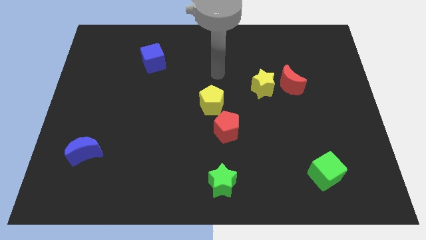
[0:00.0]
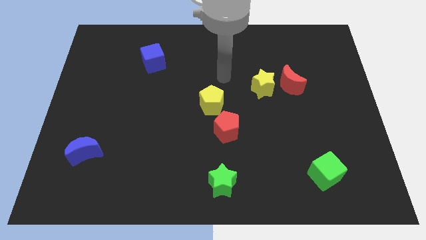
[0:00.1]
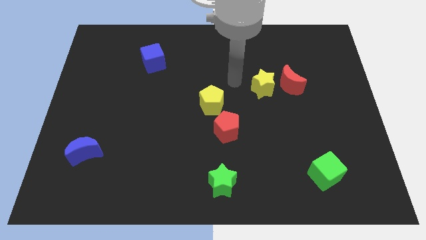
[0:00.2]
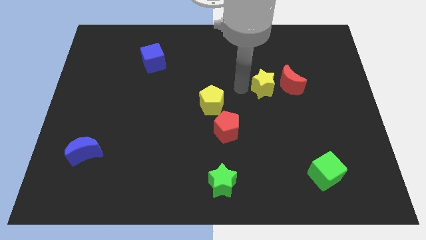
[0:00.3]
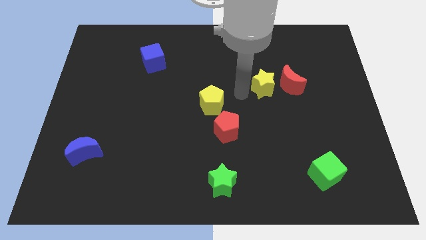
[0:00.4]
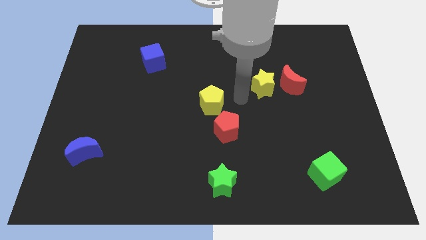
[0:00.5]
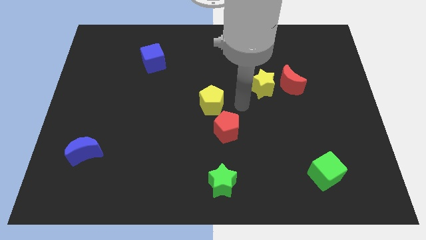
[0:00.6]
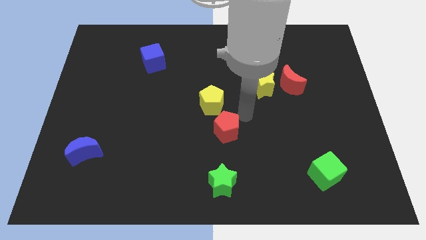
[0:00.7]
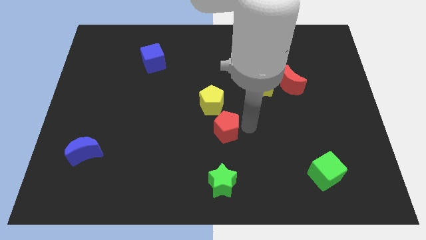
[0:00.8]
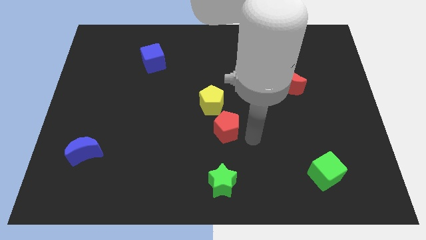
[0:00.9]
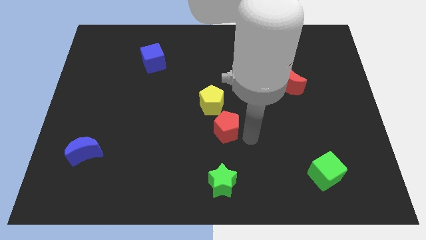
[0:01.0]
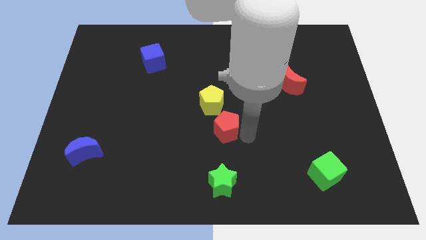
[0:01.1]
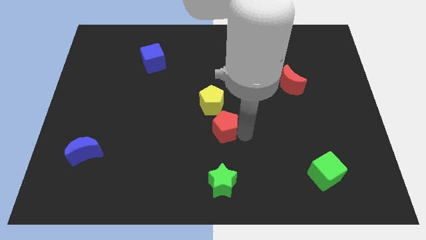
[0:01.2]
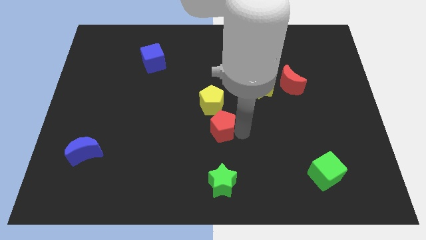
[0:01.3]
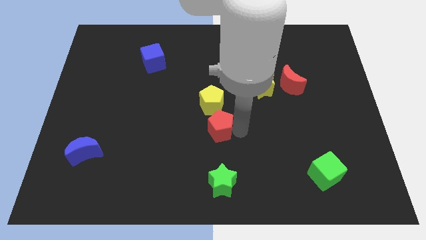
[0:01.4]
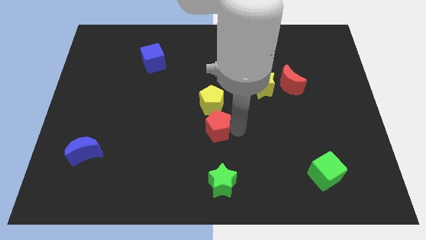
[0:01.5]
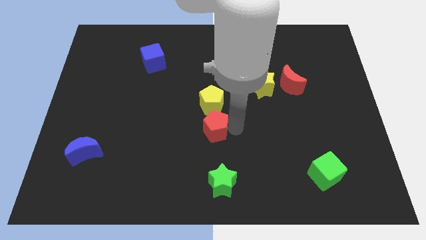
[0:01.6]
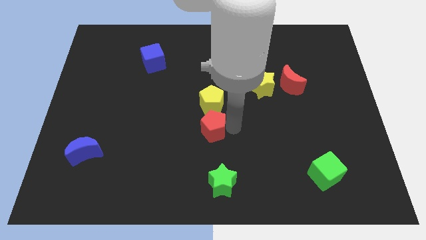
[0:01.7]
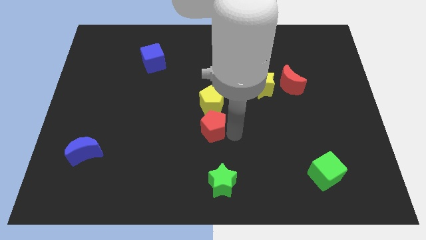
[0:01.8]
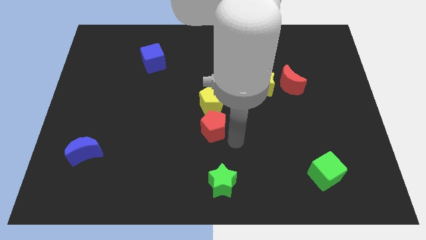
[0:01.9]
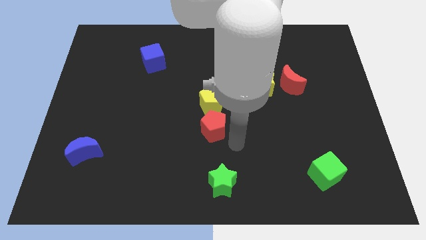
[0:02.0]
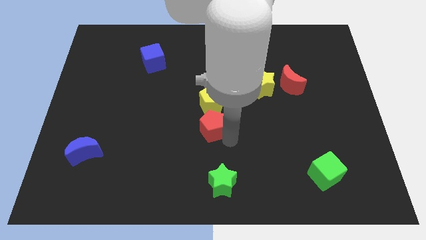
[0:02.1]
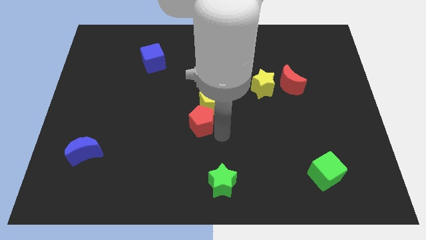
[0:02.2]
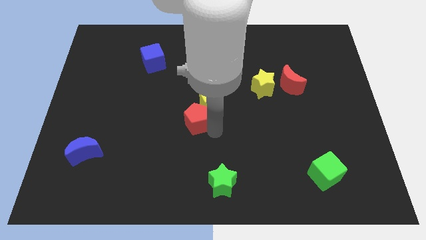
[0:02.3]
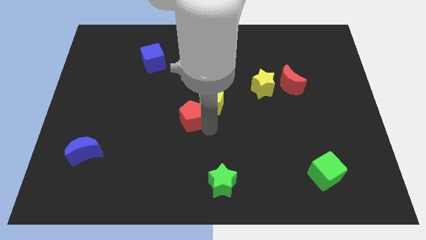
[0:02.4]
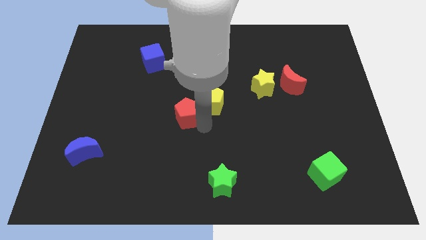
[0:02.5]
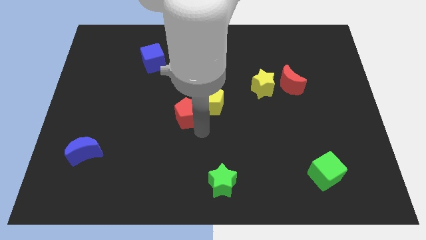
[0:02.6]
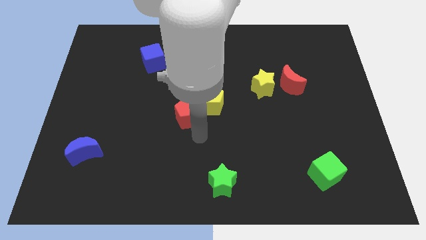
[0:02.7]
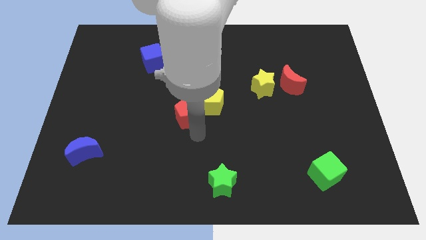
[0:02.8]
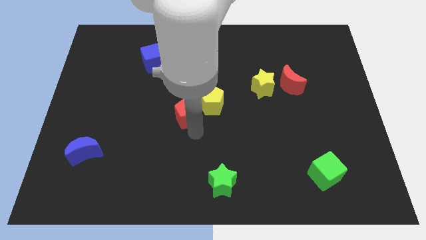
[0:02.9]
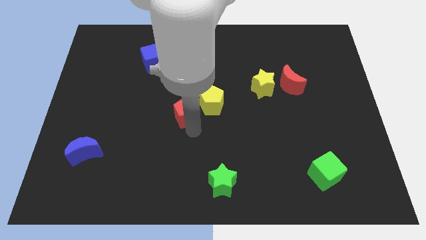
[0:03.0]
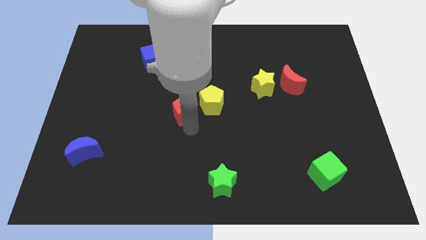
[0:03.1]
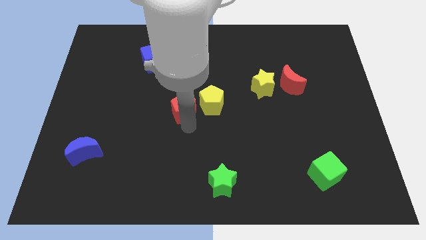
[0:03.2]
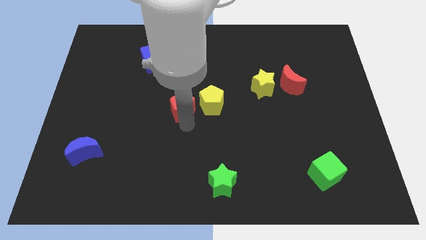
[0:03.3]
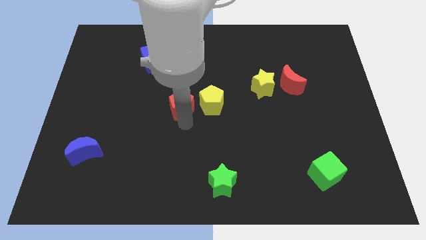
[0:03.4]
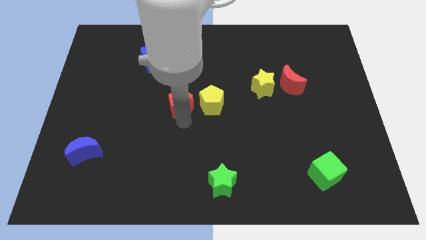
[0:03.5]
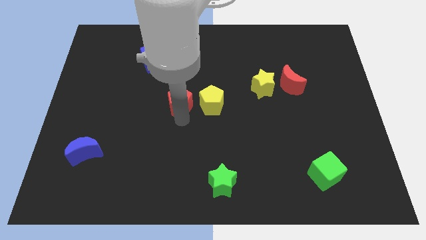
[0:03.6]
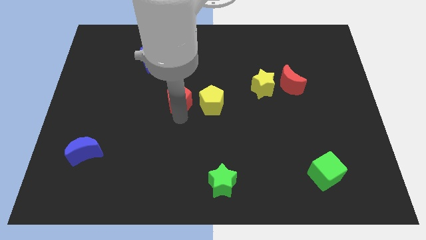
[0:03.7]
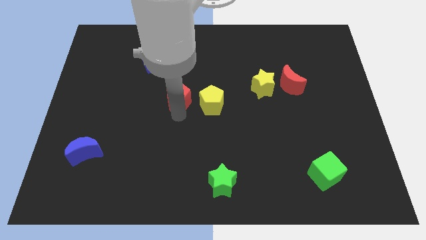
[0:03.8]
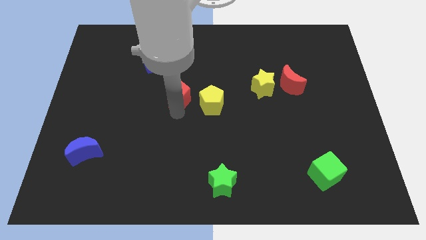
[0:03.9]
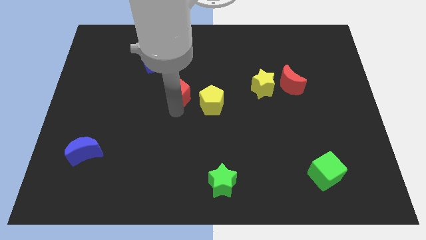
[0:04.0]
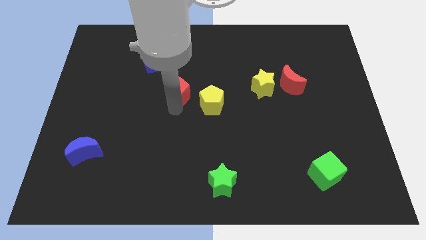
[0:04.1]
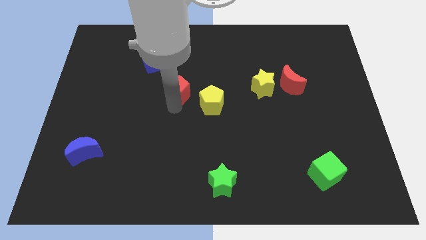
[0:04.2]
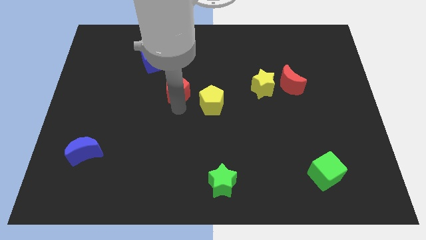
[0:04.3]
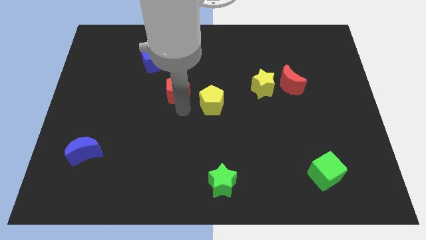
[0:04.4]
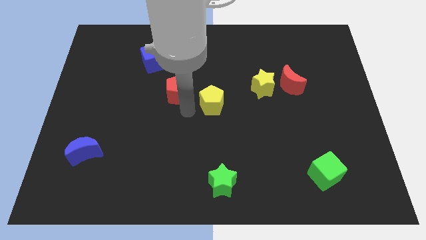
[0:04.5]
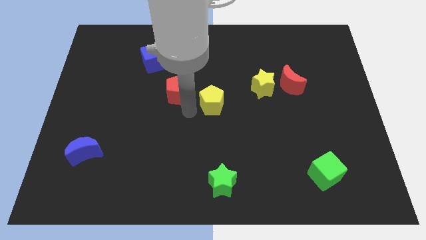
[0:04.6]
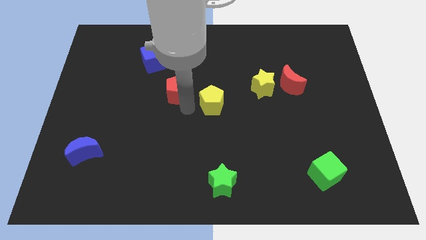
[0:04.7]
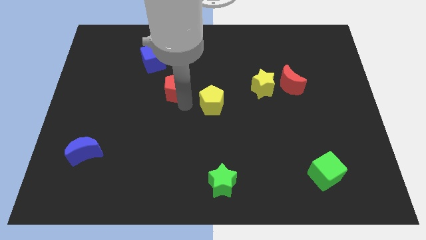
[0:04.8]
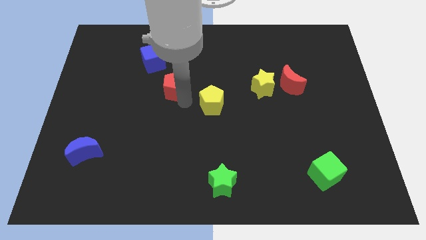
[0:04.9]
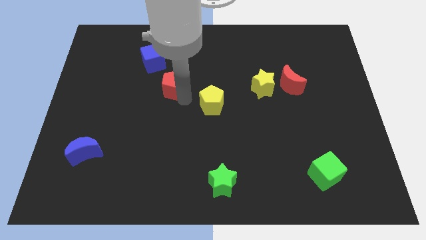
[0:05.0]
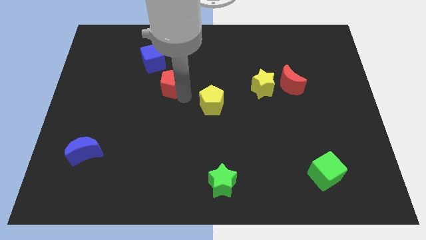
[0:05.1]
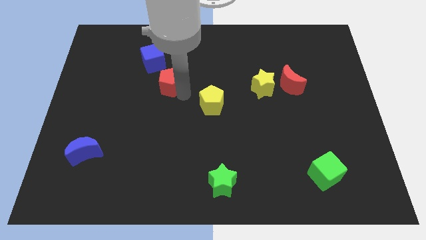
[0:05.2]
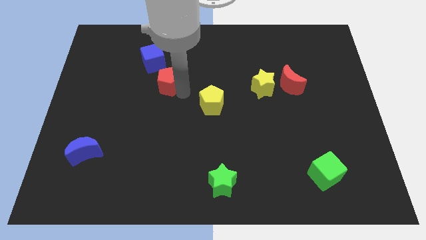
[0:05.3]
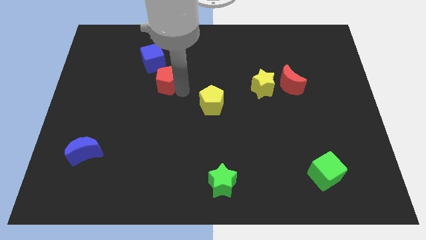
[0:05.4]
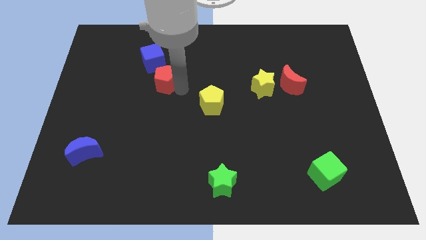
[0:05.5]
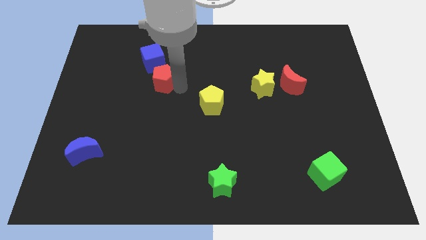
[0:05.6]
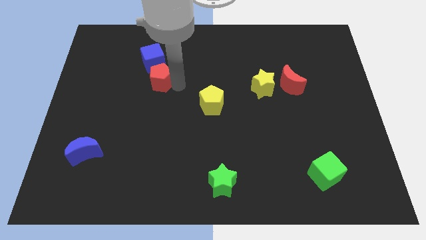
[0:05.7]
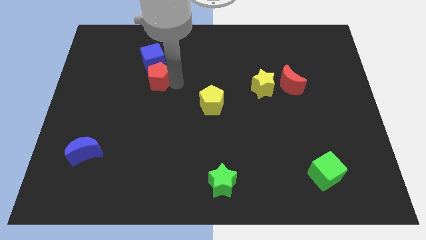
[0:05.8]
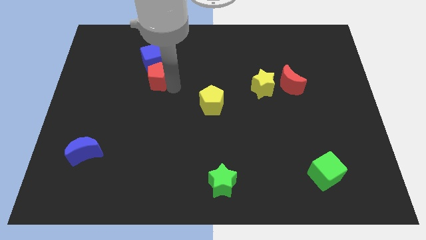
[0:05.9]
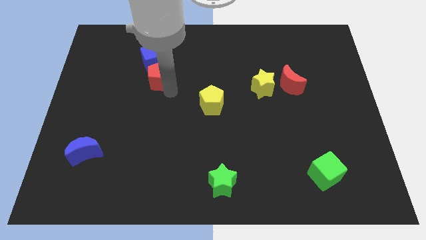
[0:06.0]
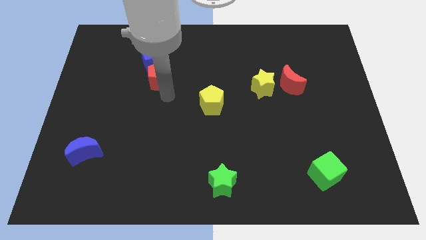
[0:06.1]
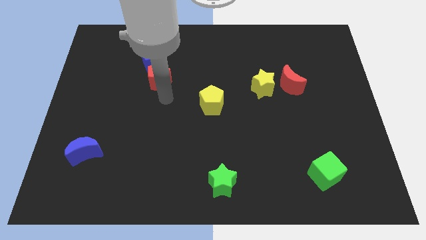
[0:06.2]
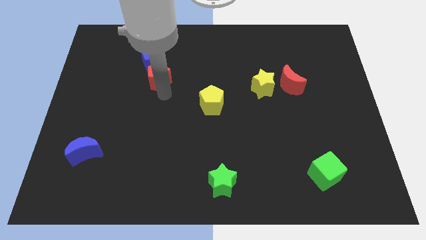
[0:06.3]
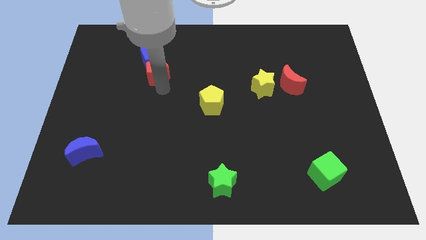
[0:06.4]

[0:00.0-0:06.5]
push the red pentagon to the blue cube

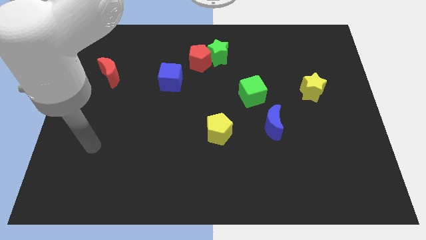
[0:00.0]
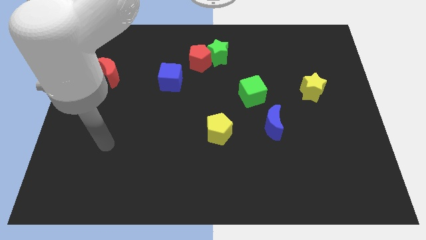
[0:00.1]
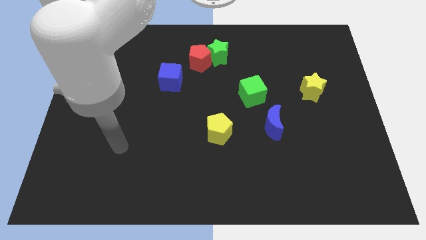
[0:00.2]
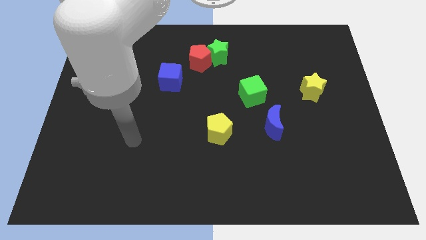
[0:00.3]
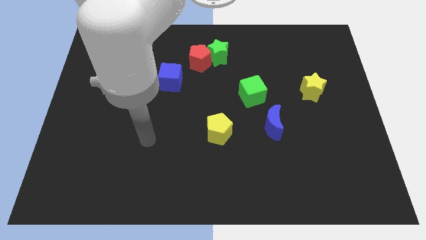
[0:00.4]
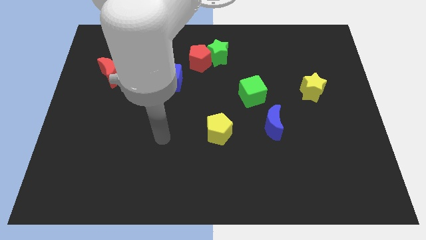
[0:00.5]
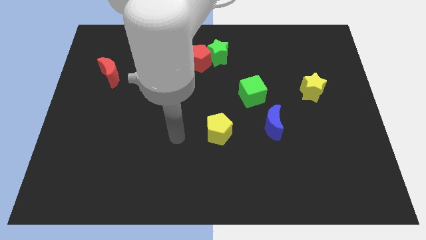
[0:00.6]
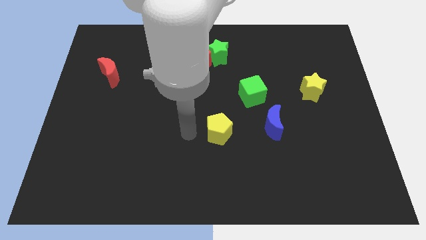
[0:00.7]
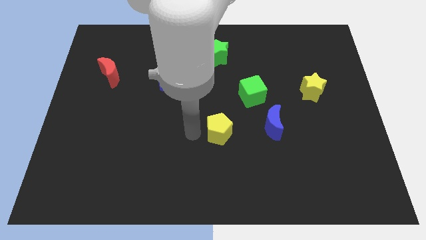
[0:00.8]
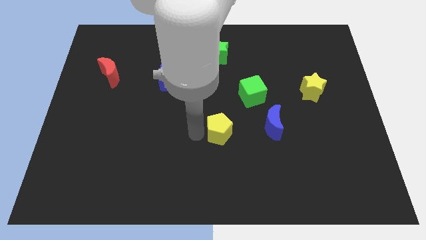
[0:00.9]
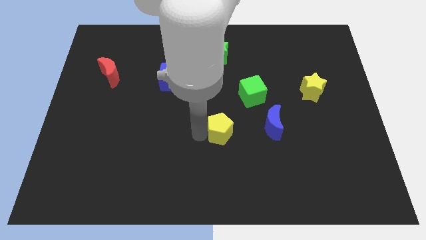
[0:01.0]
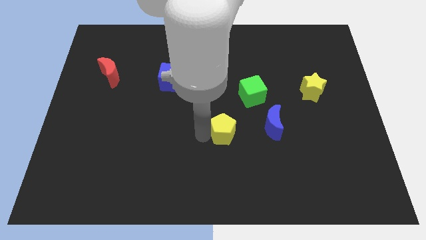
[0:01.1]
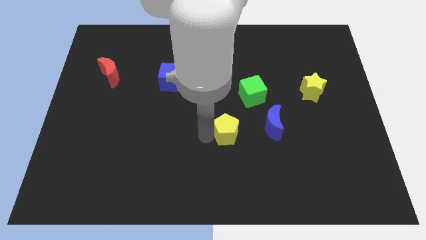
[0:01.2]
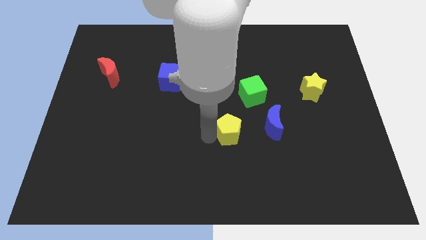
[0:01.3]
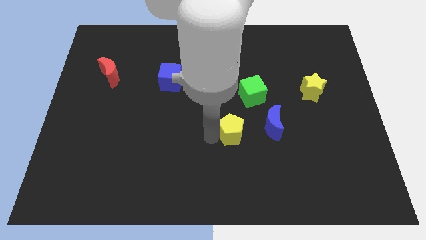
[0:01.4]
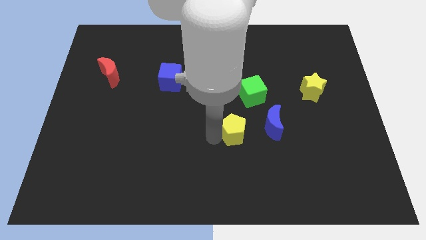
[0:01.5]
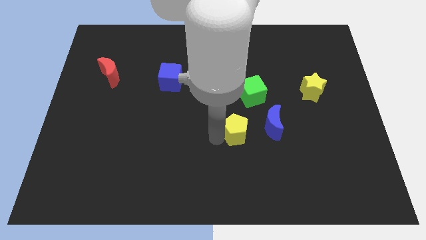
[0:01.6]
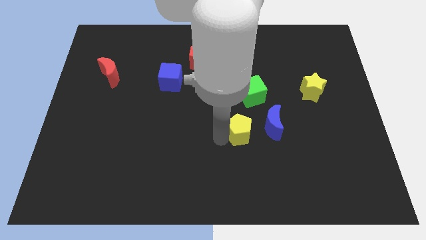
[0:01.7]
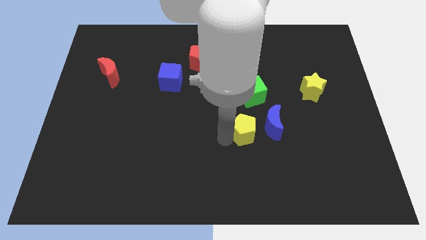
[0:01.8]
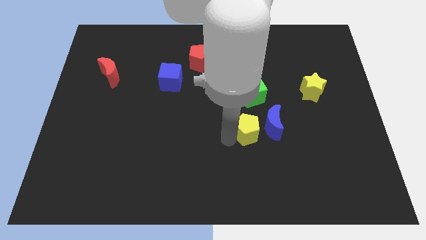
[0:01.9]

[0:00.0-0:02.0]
push the yellow pentagon towards the blue moon
